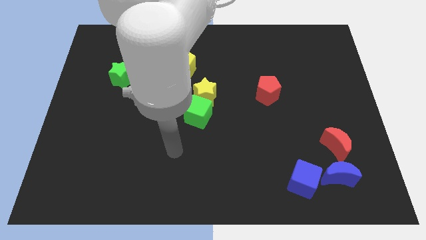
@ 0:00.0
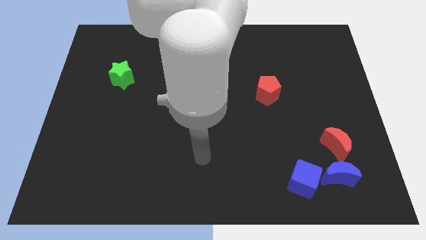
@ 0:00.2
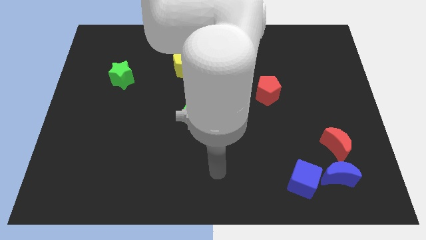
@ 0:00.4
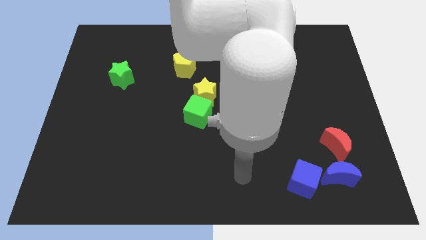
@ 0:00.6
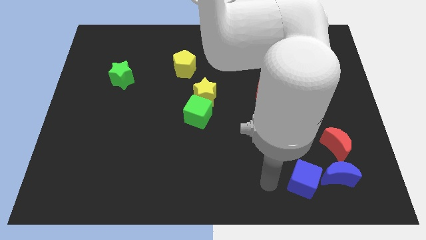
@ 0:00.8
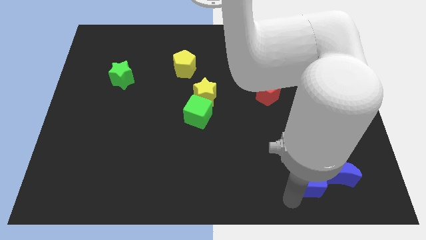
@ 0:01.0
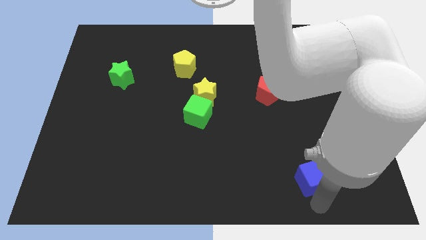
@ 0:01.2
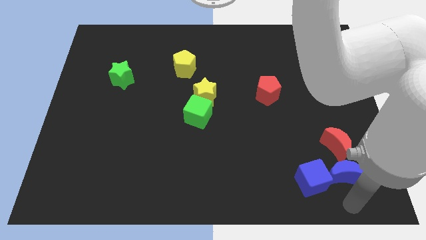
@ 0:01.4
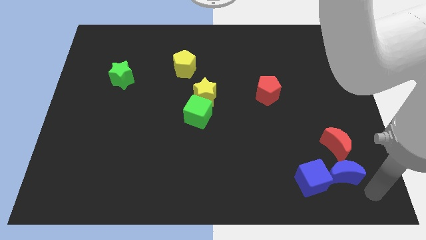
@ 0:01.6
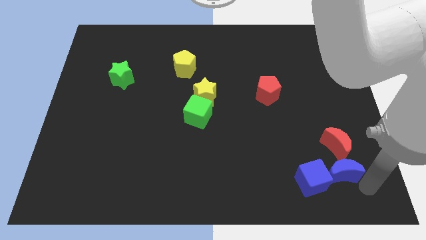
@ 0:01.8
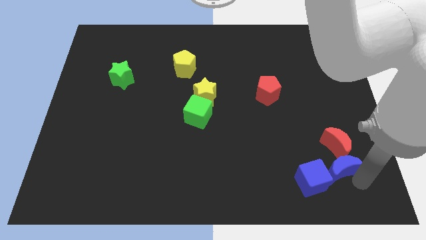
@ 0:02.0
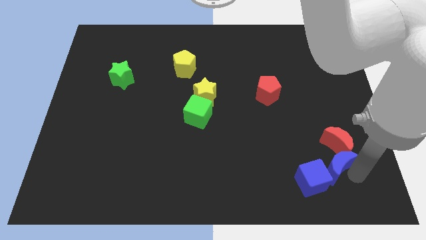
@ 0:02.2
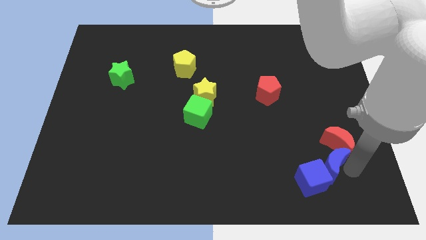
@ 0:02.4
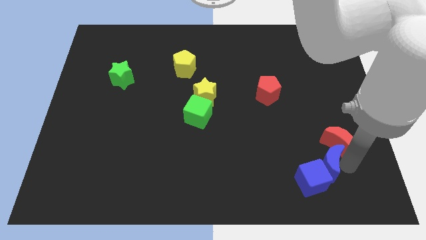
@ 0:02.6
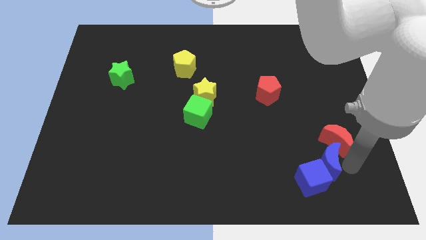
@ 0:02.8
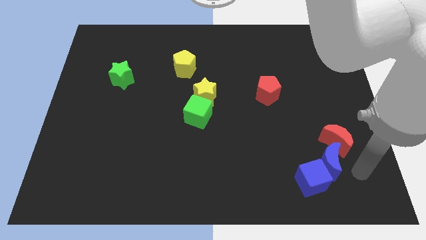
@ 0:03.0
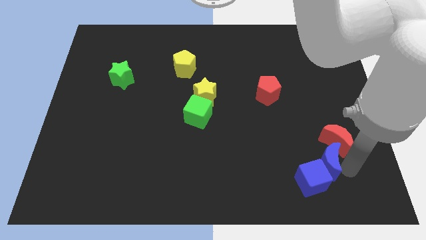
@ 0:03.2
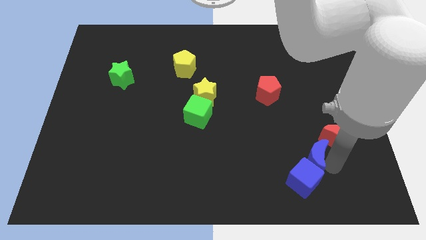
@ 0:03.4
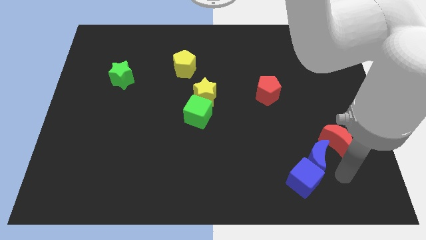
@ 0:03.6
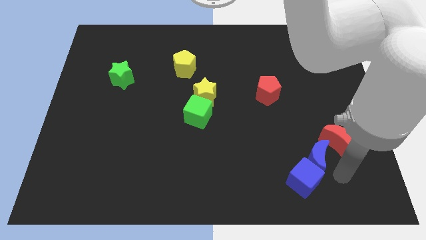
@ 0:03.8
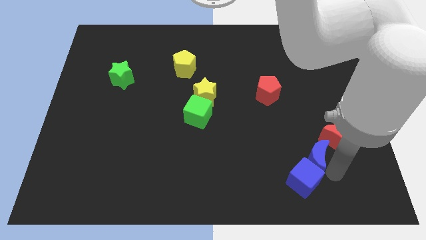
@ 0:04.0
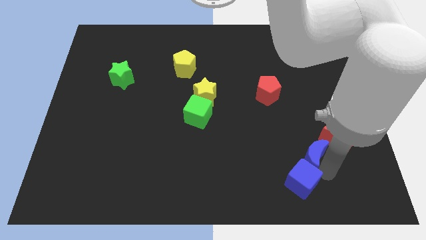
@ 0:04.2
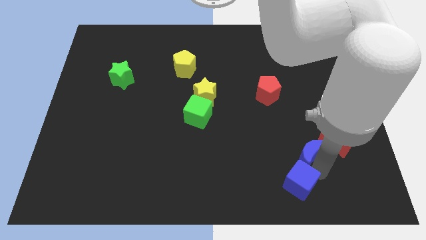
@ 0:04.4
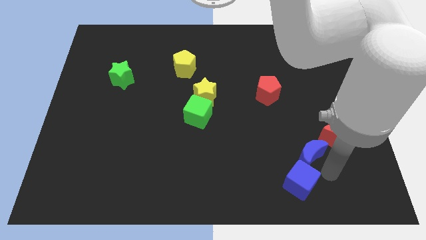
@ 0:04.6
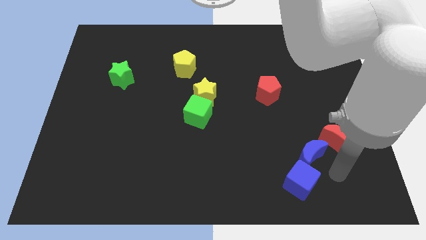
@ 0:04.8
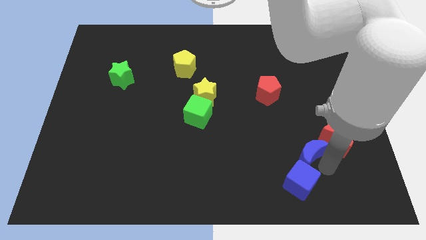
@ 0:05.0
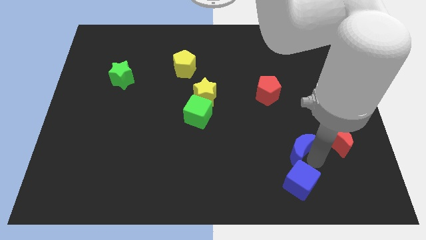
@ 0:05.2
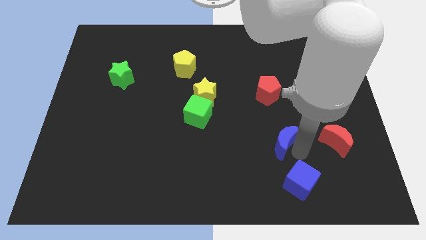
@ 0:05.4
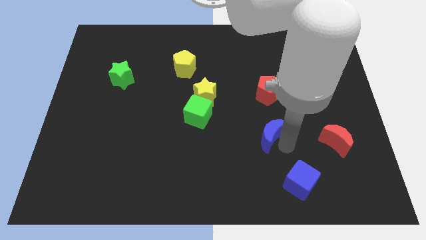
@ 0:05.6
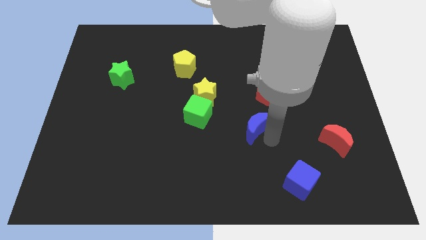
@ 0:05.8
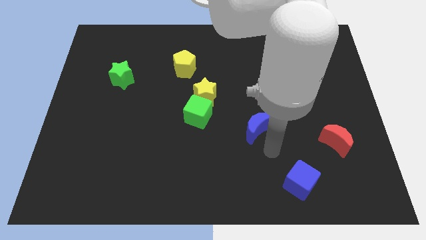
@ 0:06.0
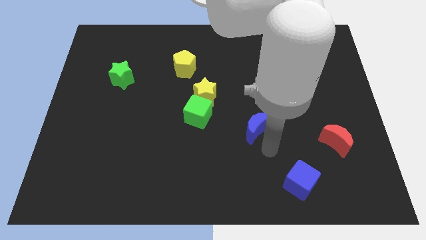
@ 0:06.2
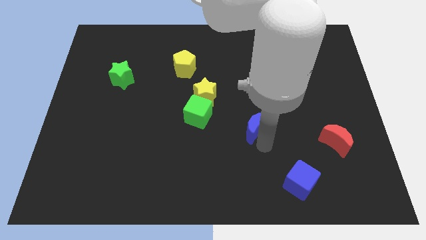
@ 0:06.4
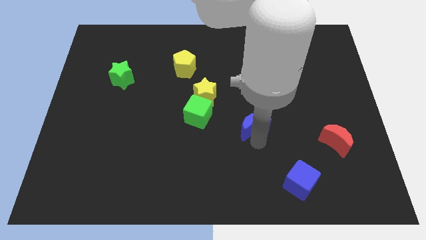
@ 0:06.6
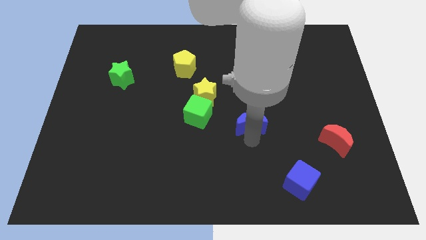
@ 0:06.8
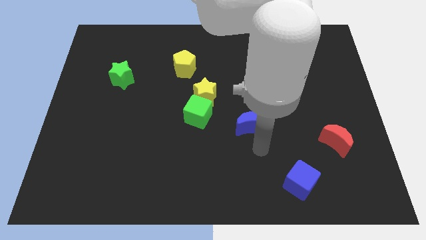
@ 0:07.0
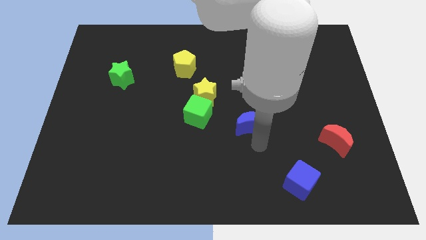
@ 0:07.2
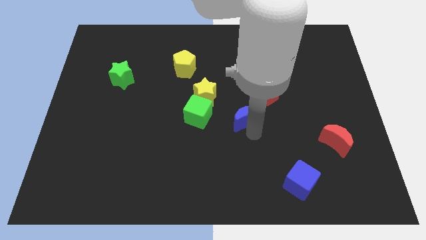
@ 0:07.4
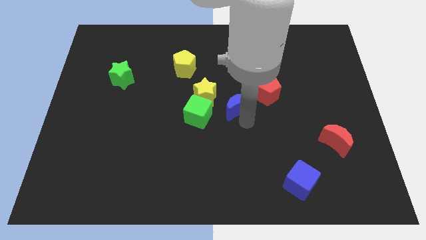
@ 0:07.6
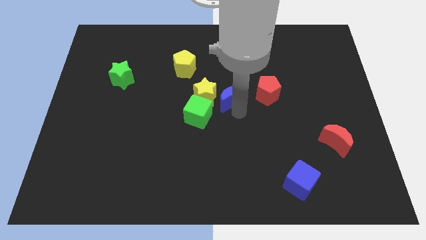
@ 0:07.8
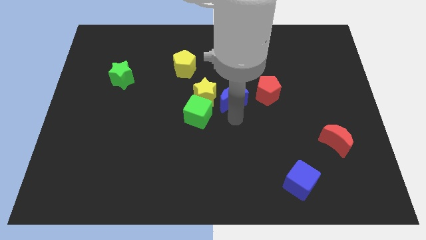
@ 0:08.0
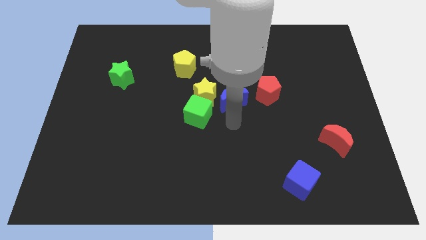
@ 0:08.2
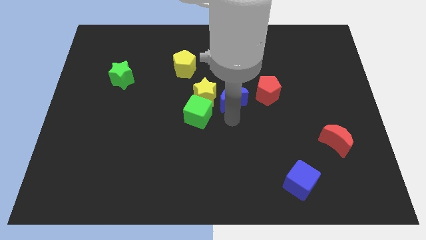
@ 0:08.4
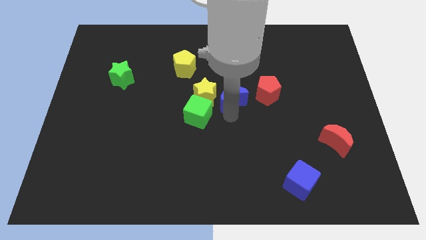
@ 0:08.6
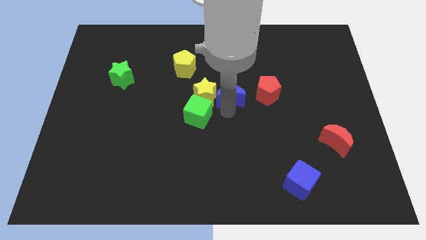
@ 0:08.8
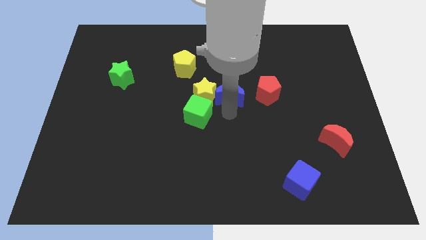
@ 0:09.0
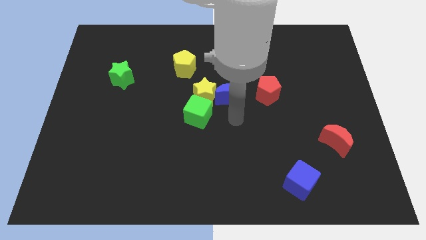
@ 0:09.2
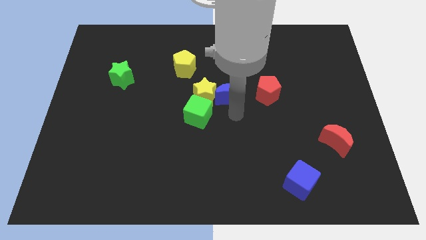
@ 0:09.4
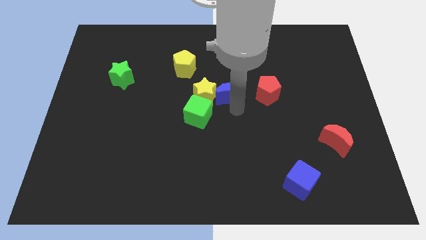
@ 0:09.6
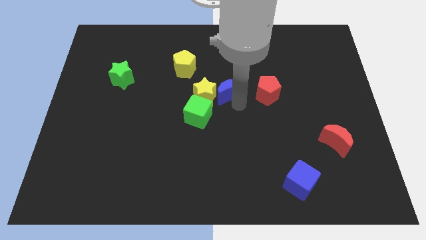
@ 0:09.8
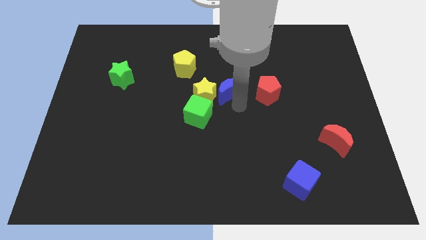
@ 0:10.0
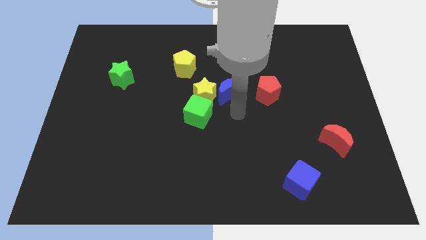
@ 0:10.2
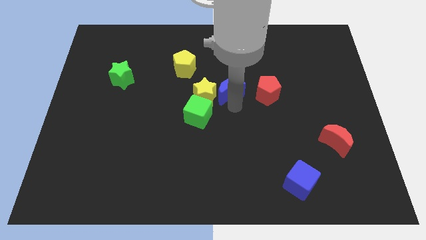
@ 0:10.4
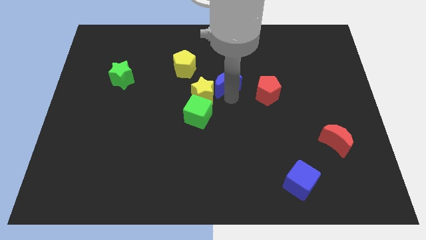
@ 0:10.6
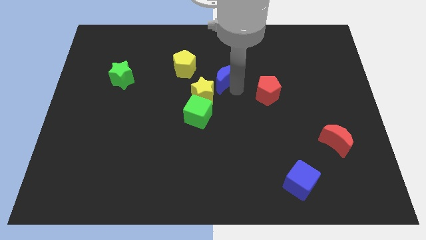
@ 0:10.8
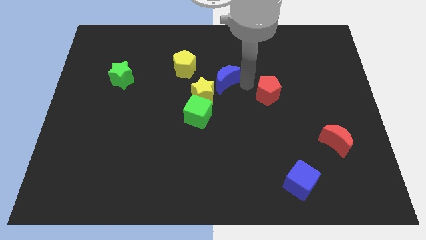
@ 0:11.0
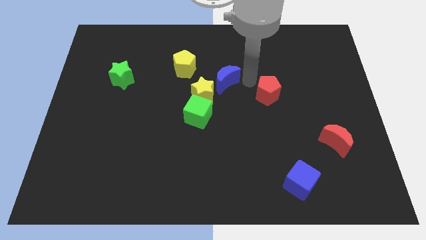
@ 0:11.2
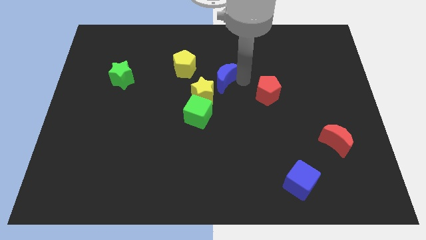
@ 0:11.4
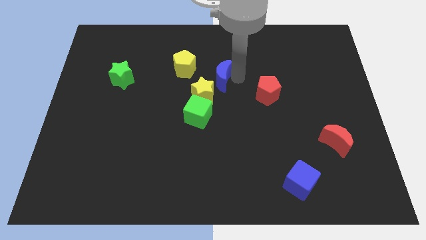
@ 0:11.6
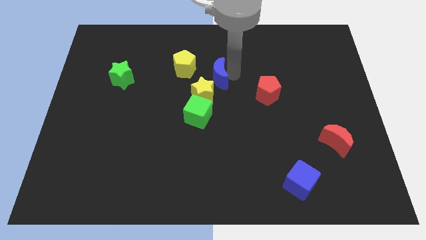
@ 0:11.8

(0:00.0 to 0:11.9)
slide the blue moon above the green cube

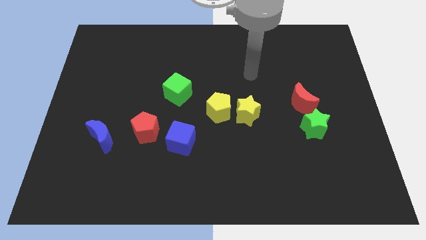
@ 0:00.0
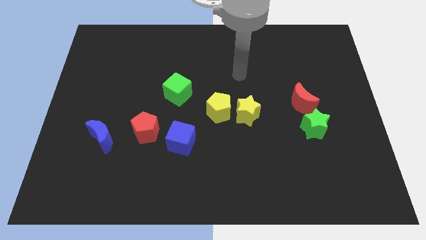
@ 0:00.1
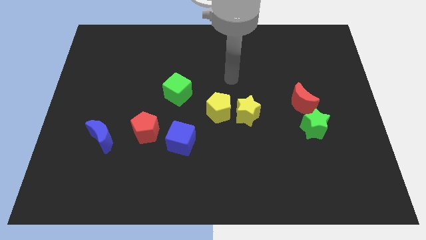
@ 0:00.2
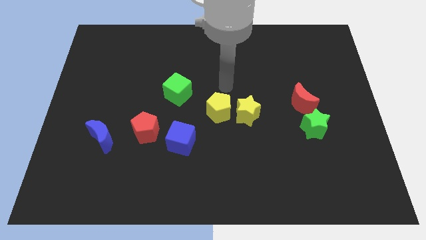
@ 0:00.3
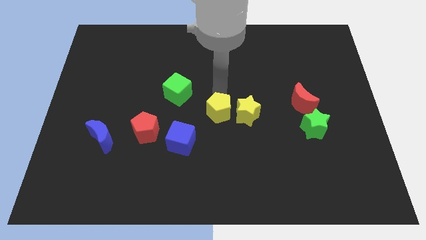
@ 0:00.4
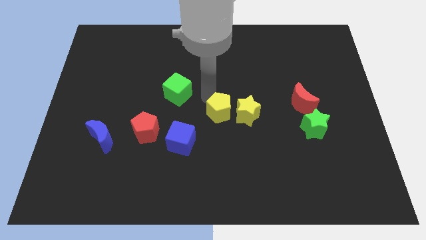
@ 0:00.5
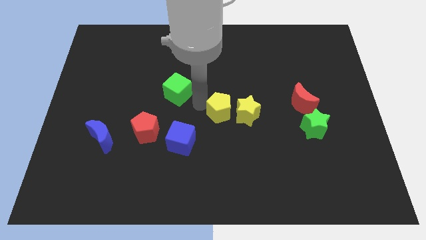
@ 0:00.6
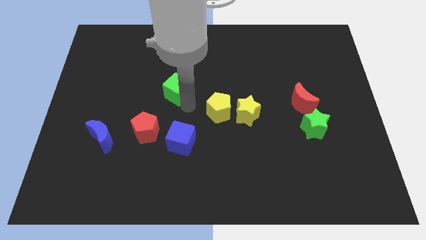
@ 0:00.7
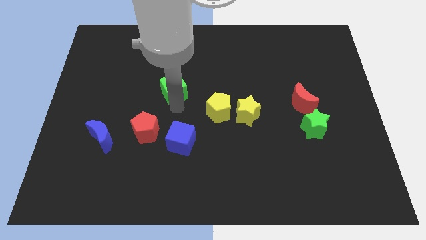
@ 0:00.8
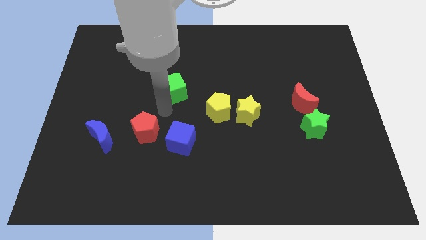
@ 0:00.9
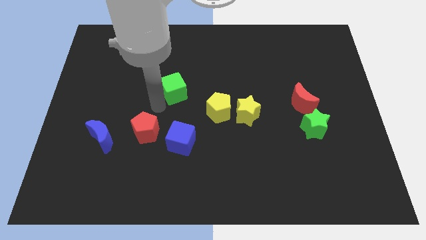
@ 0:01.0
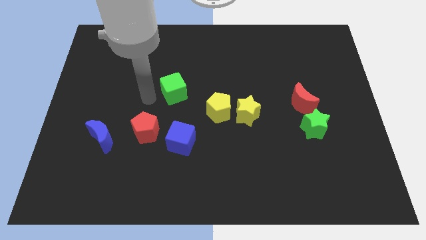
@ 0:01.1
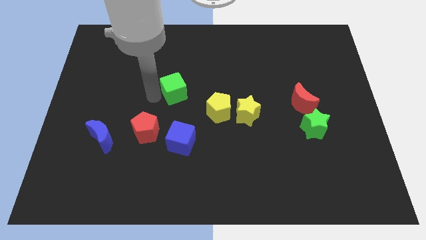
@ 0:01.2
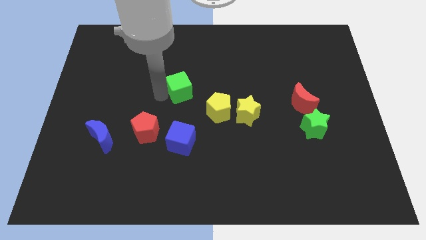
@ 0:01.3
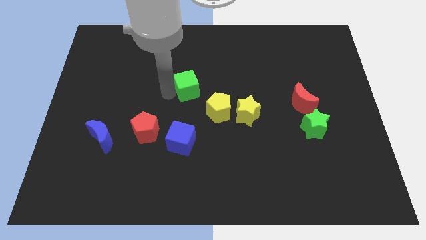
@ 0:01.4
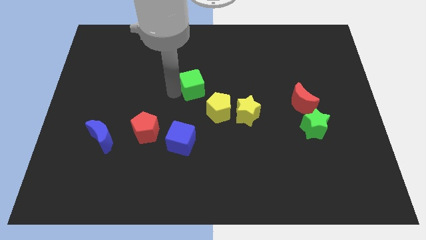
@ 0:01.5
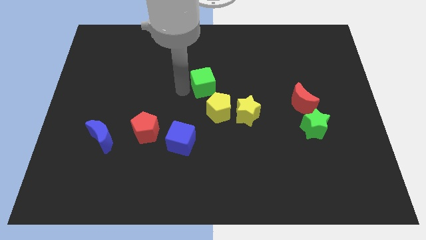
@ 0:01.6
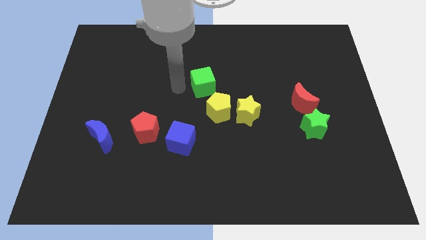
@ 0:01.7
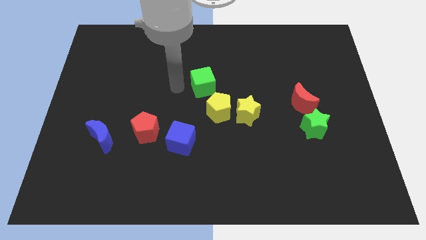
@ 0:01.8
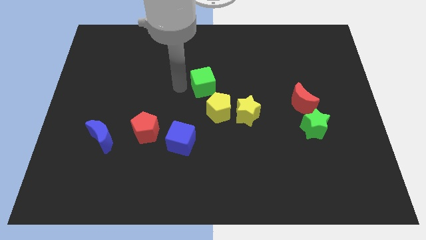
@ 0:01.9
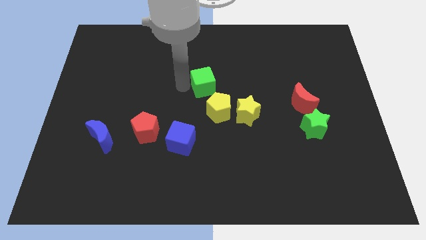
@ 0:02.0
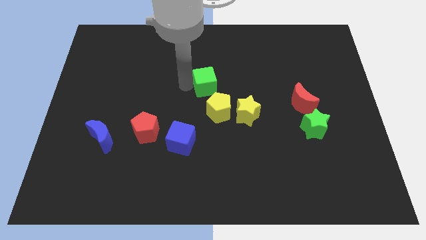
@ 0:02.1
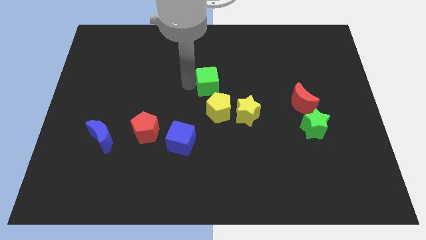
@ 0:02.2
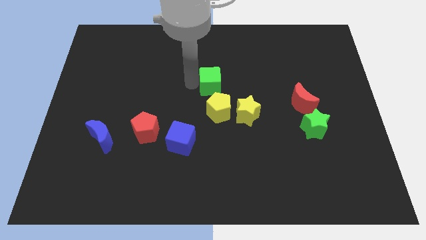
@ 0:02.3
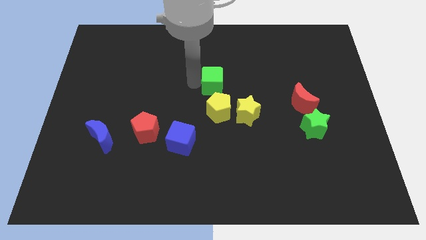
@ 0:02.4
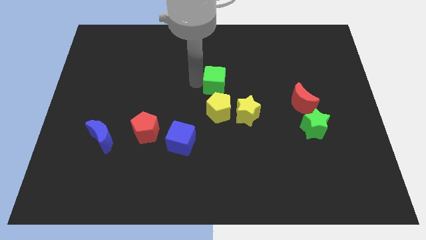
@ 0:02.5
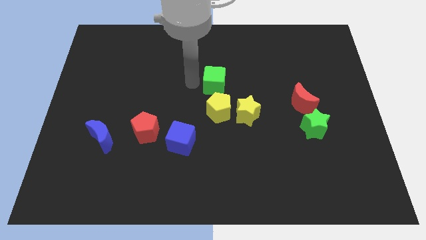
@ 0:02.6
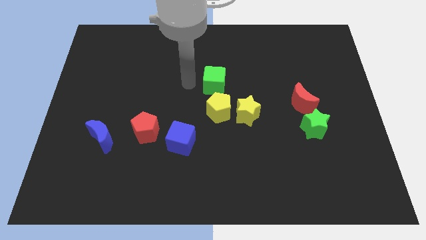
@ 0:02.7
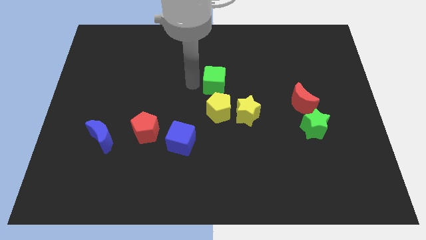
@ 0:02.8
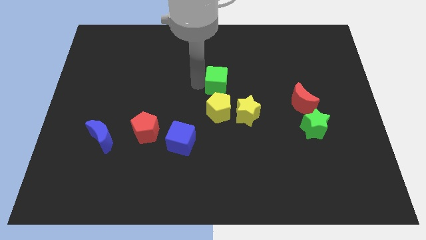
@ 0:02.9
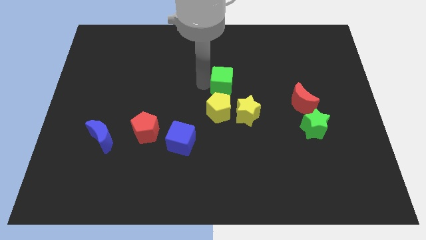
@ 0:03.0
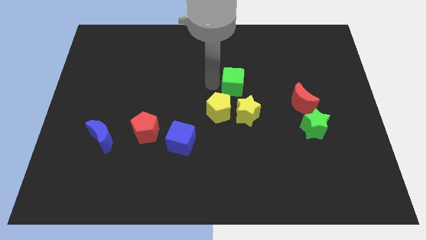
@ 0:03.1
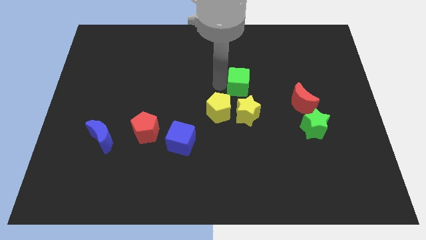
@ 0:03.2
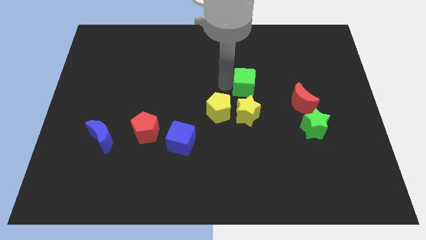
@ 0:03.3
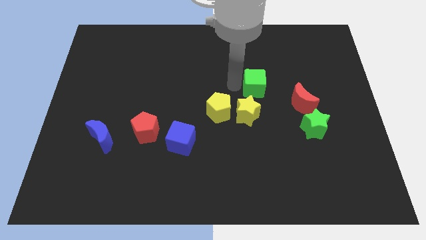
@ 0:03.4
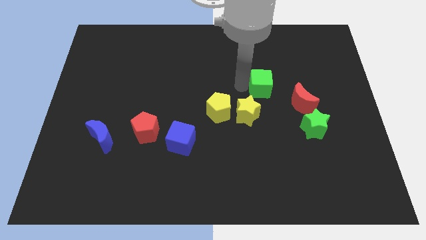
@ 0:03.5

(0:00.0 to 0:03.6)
slide the green cube diagonally up and to the left of the red moon
